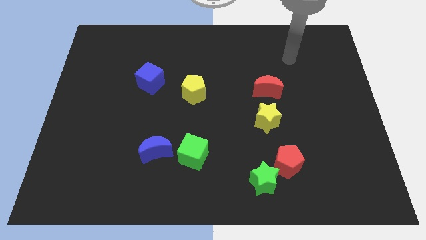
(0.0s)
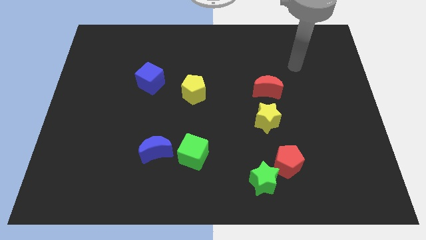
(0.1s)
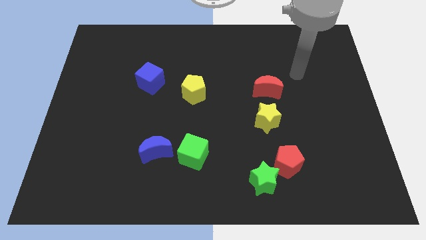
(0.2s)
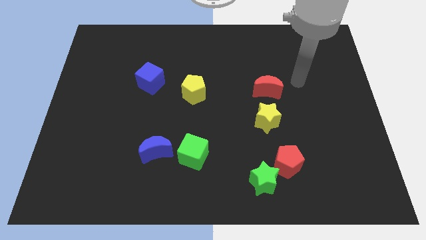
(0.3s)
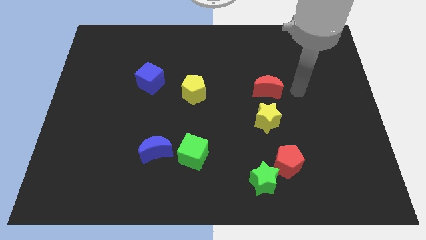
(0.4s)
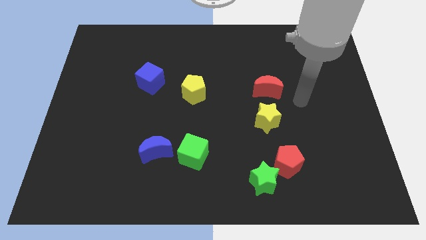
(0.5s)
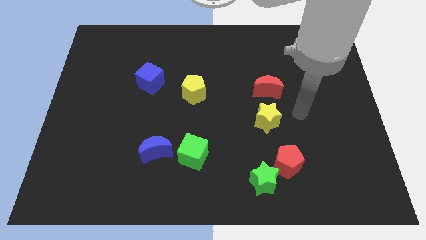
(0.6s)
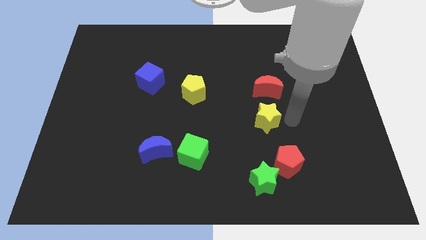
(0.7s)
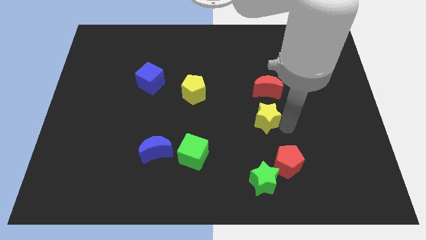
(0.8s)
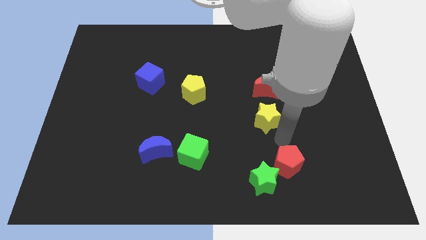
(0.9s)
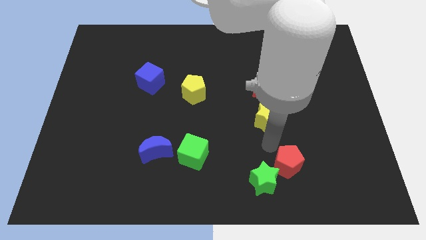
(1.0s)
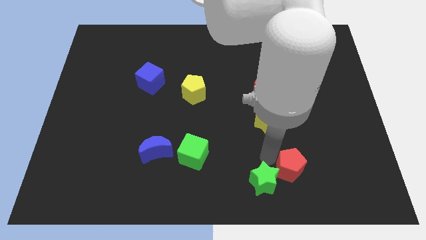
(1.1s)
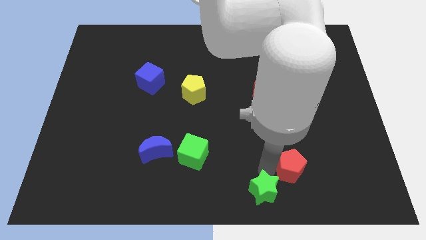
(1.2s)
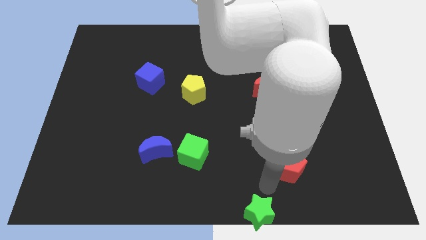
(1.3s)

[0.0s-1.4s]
pull the red pentagon apart from the green star

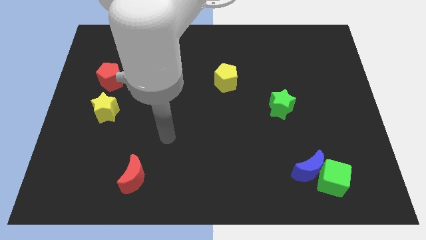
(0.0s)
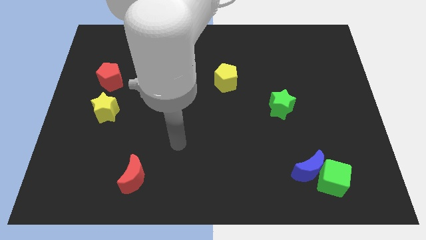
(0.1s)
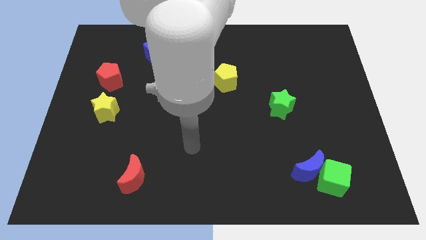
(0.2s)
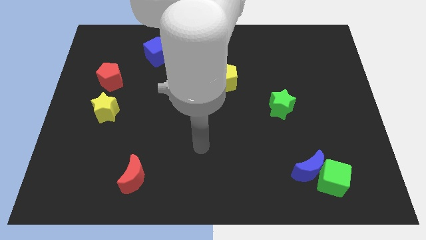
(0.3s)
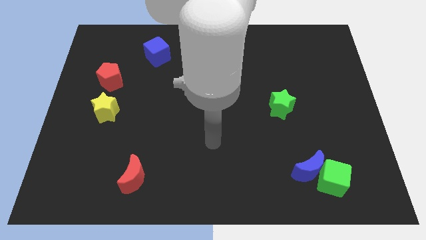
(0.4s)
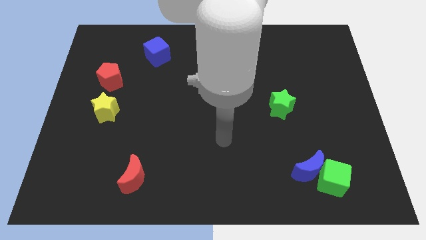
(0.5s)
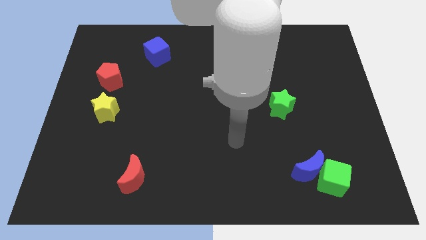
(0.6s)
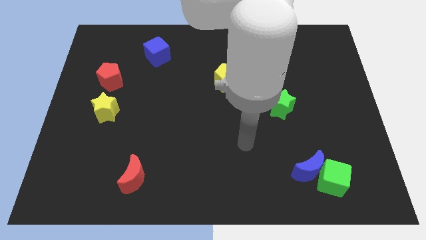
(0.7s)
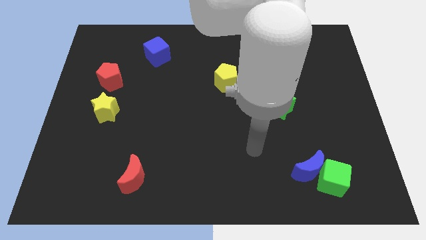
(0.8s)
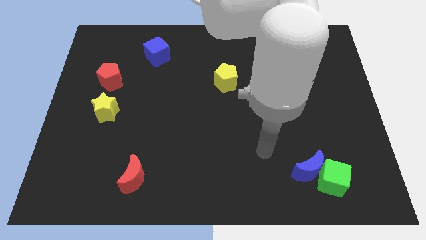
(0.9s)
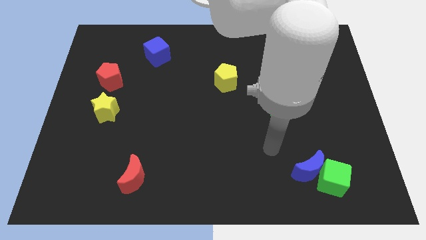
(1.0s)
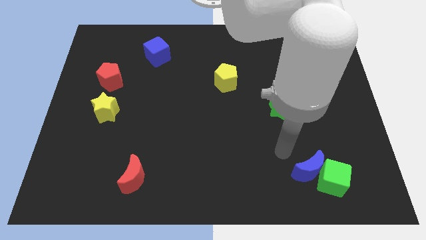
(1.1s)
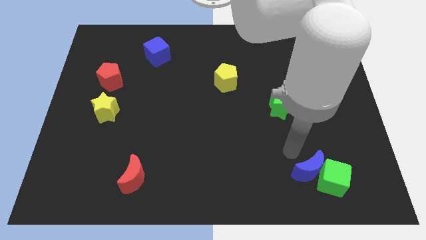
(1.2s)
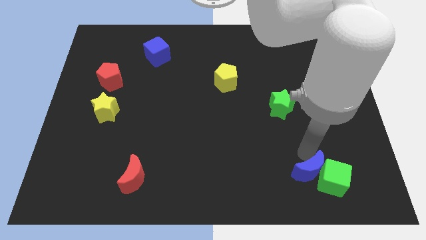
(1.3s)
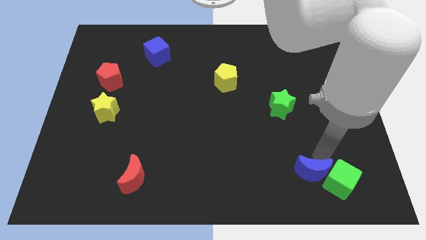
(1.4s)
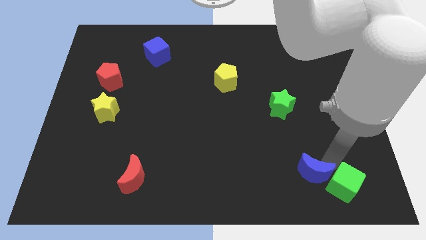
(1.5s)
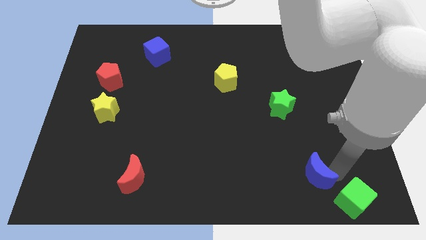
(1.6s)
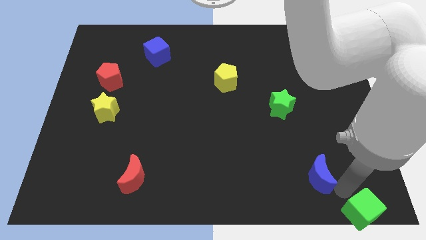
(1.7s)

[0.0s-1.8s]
pull the blue moon apart from the green cube

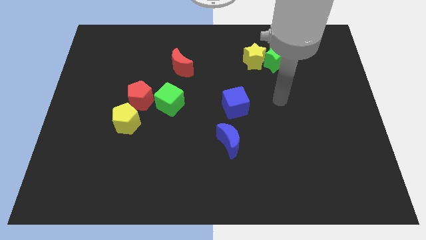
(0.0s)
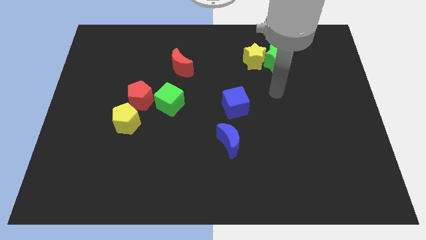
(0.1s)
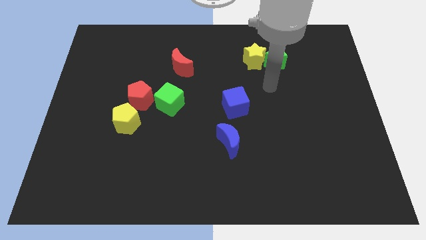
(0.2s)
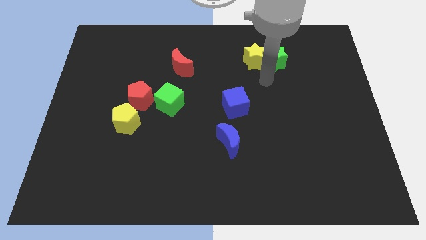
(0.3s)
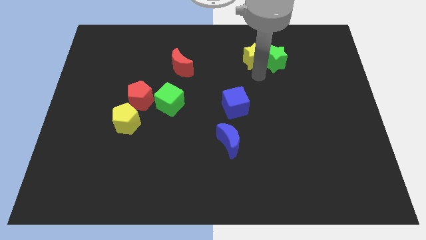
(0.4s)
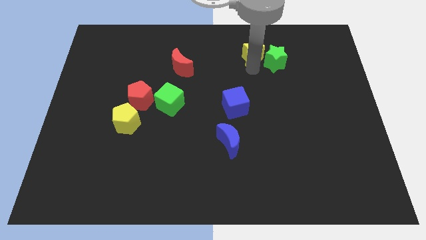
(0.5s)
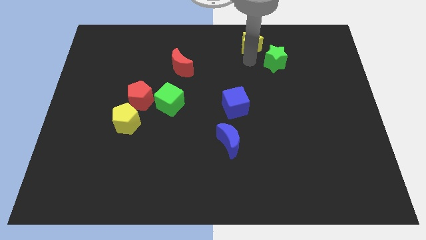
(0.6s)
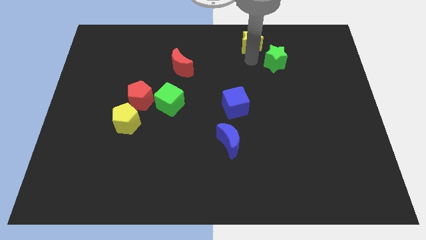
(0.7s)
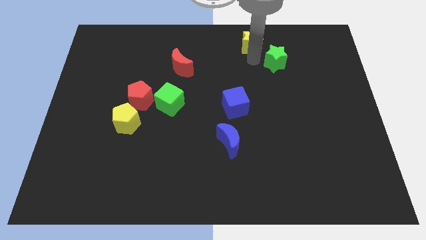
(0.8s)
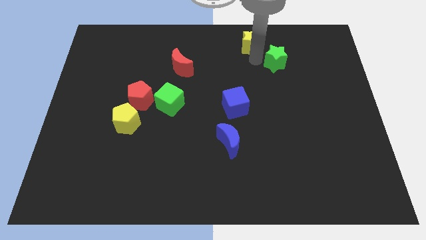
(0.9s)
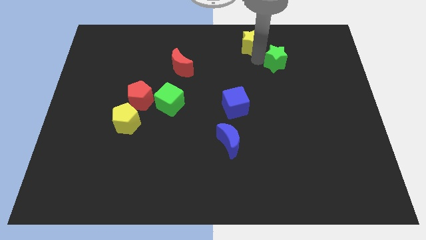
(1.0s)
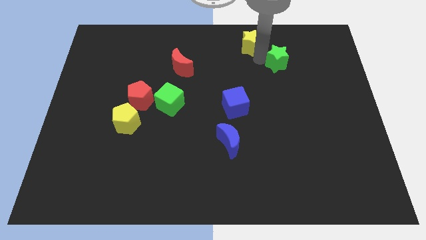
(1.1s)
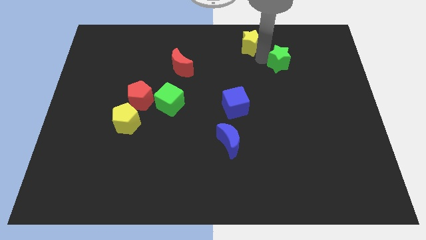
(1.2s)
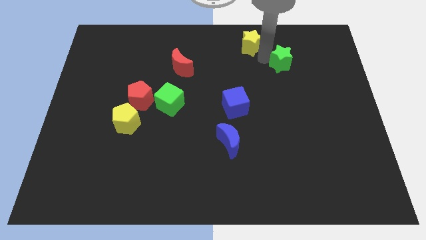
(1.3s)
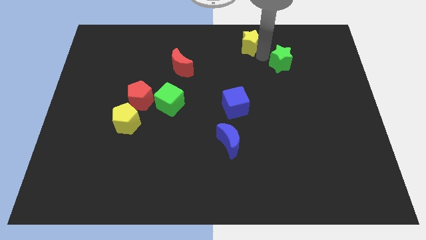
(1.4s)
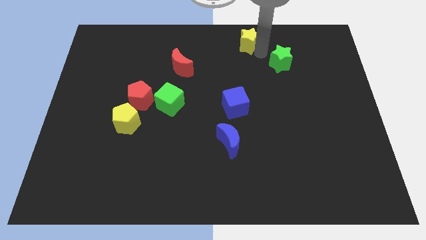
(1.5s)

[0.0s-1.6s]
pull the green star apart from the yellow star

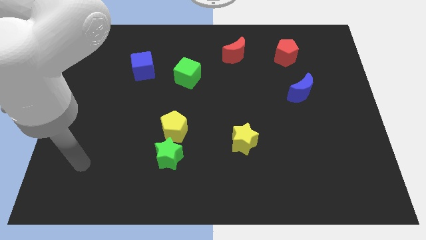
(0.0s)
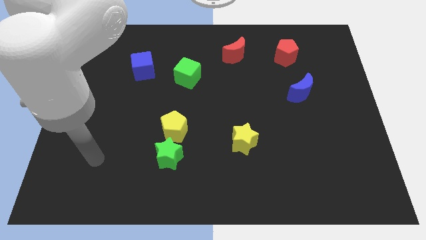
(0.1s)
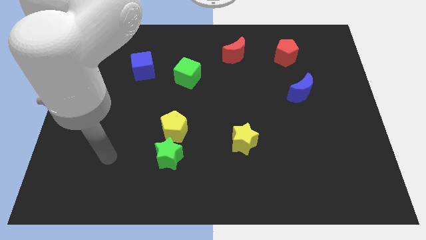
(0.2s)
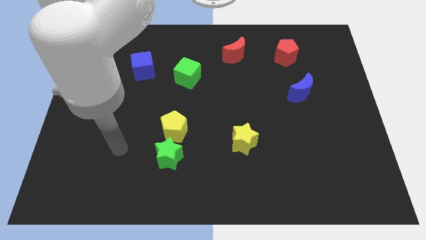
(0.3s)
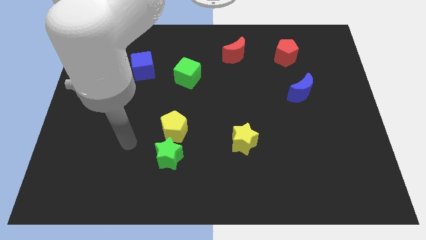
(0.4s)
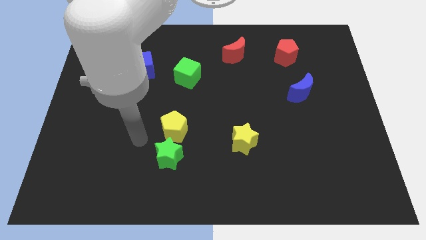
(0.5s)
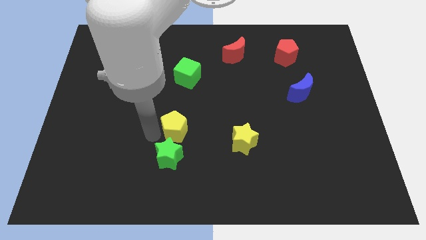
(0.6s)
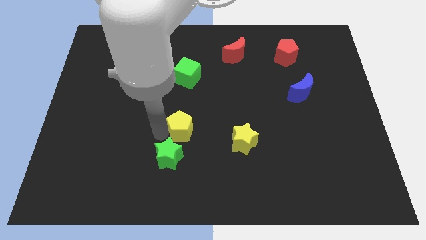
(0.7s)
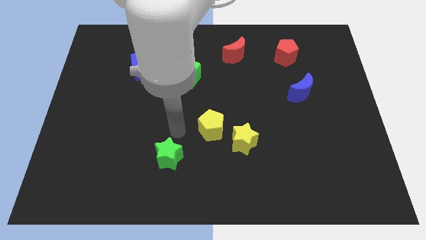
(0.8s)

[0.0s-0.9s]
separate the green star from the yellow pentagon

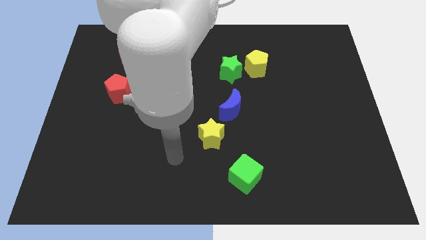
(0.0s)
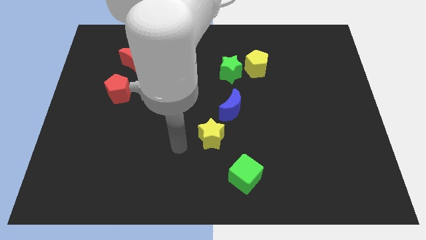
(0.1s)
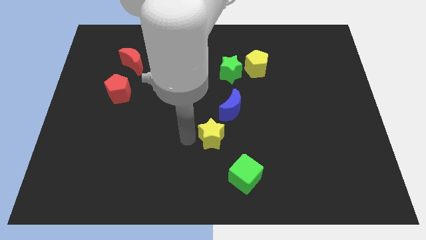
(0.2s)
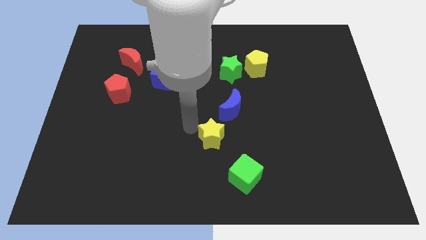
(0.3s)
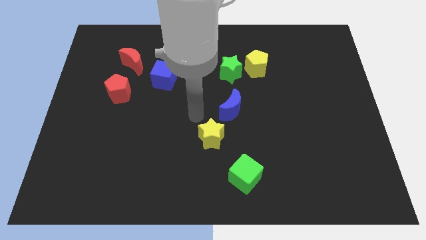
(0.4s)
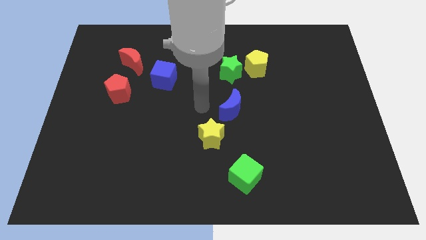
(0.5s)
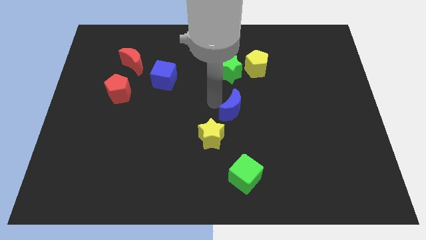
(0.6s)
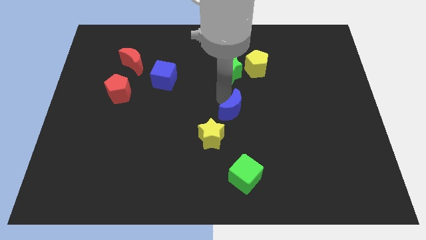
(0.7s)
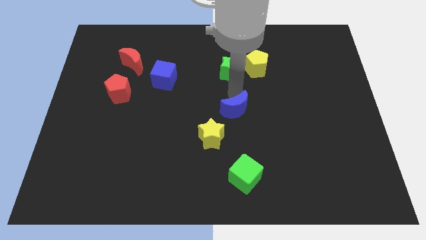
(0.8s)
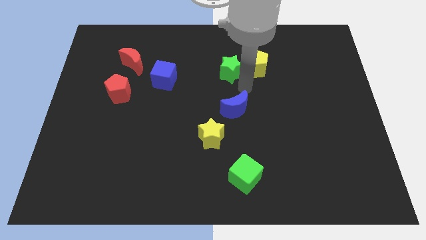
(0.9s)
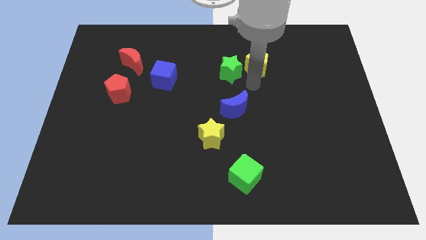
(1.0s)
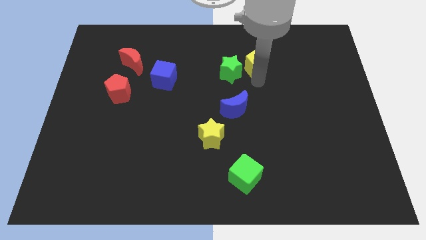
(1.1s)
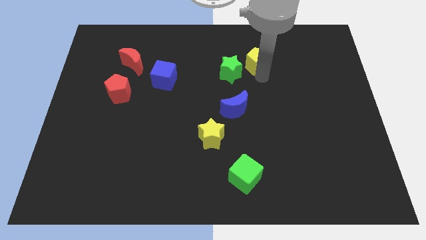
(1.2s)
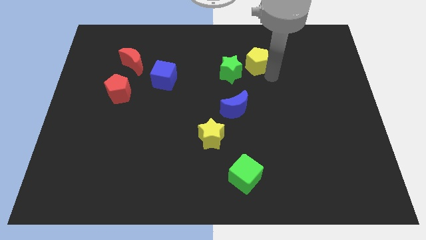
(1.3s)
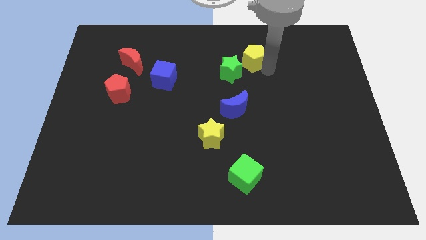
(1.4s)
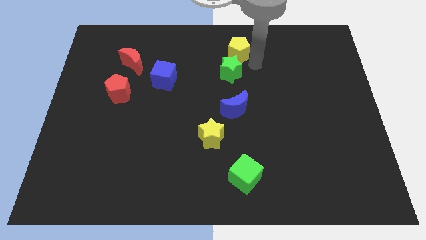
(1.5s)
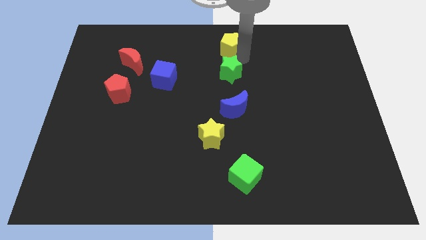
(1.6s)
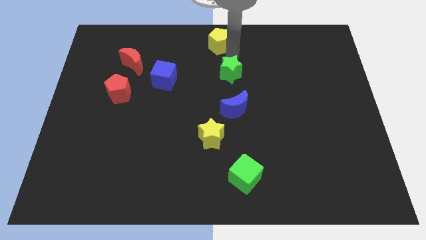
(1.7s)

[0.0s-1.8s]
pull the green star apart from the yellow pentagon

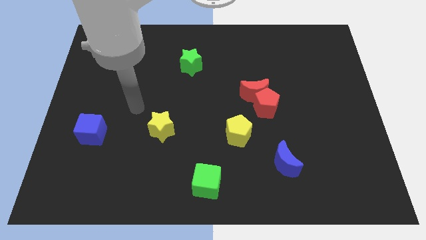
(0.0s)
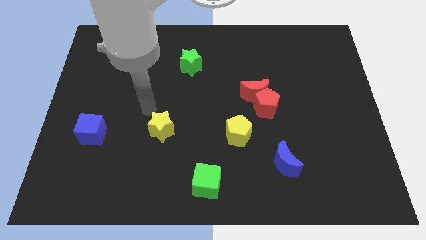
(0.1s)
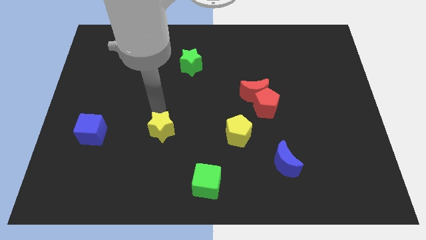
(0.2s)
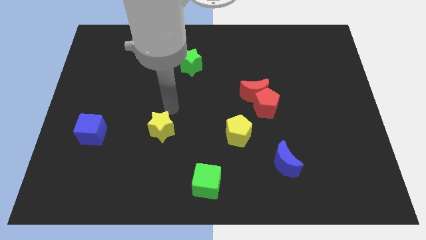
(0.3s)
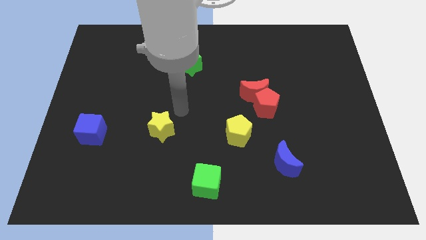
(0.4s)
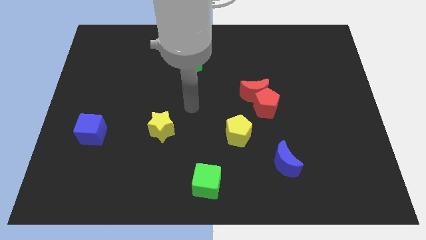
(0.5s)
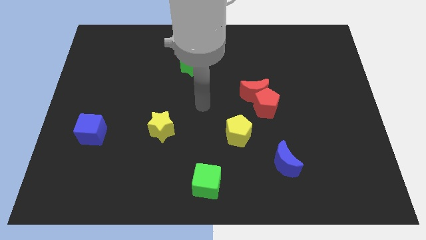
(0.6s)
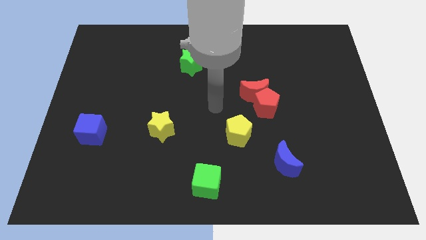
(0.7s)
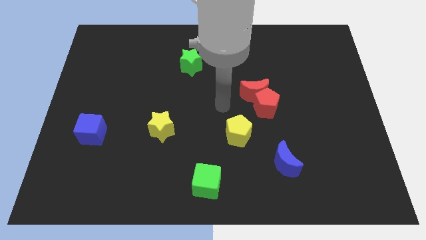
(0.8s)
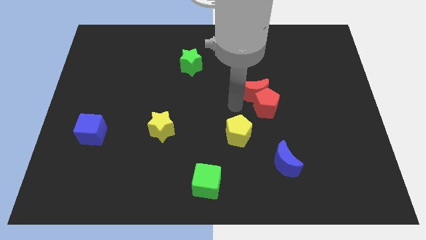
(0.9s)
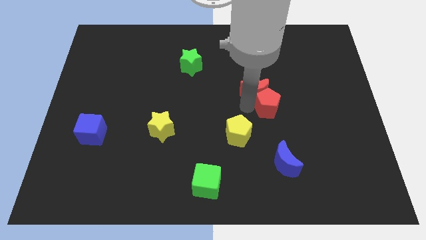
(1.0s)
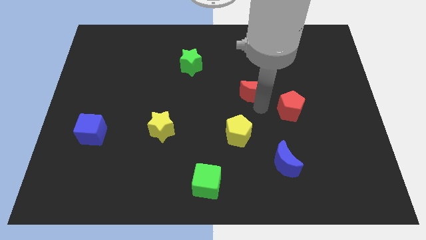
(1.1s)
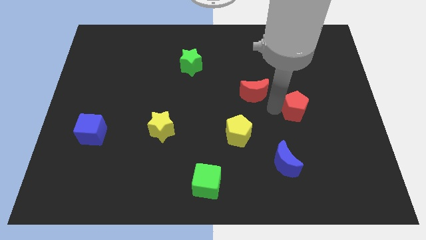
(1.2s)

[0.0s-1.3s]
pull the red moon apart from the red pentagon

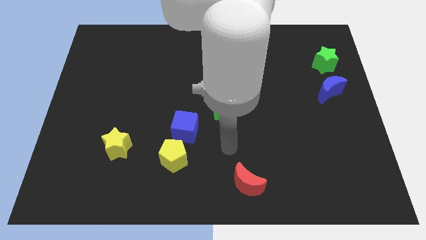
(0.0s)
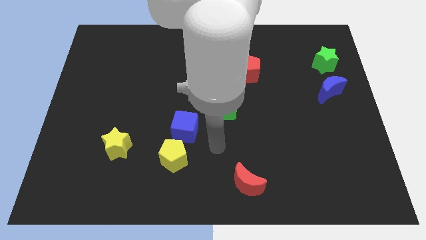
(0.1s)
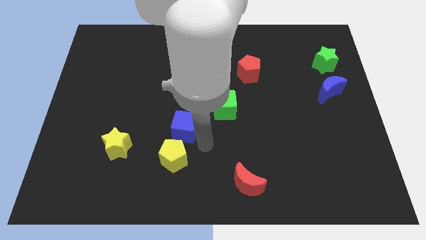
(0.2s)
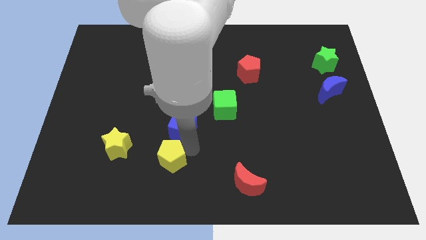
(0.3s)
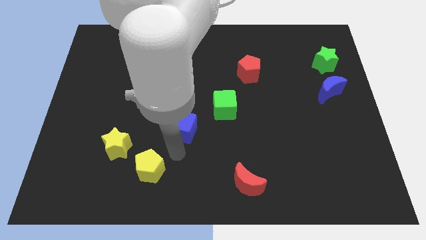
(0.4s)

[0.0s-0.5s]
move the blue cube away from the yellow pentagon
